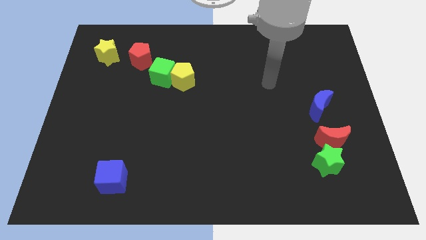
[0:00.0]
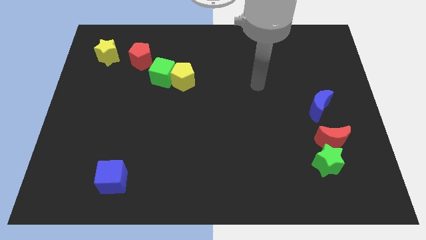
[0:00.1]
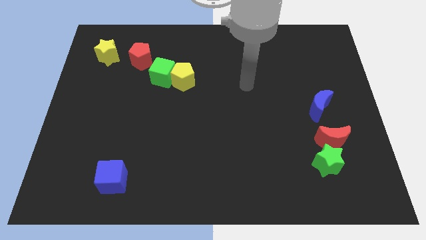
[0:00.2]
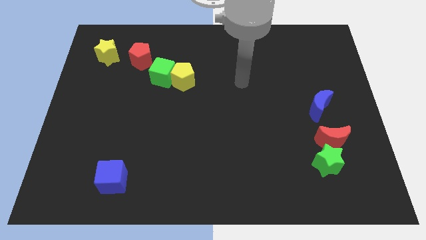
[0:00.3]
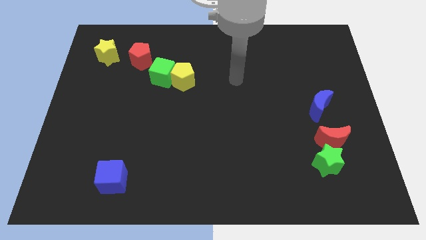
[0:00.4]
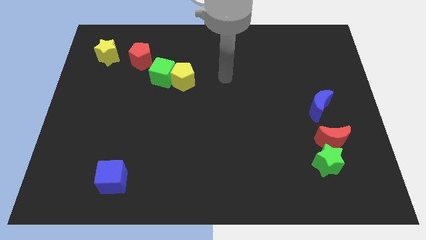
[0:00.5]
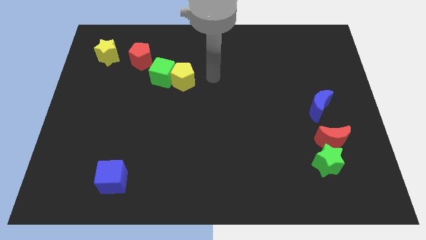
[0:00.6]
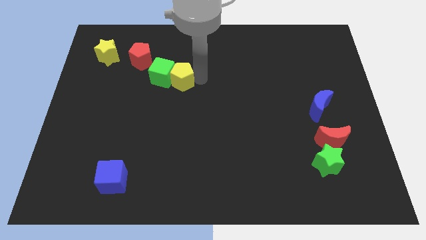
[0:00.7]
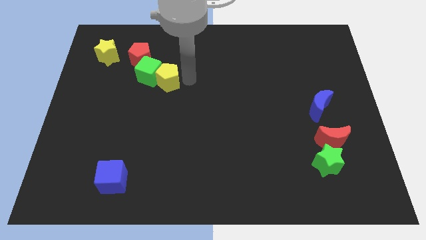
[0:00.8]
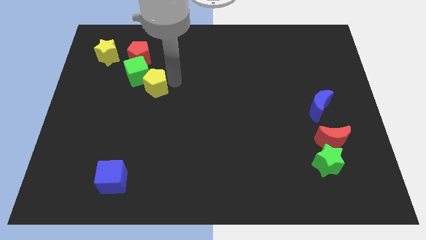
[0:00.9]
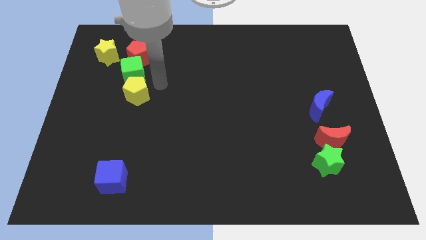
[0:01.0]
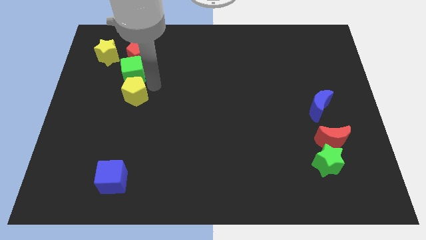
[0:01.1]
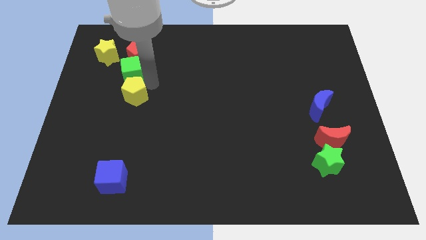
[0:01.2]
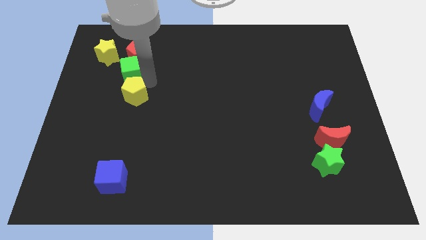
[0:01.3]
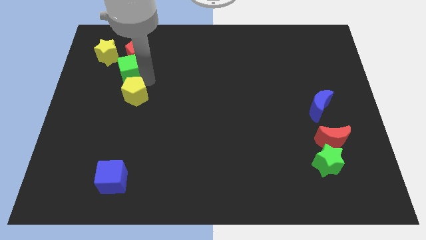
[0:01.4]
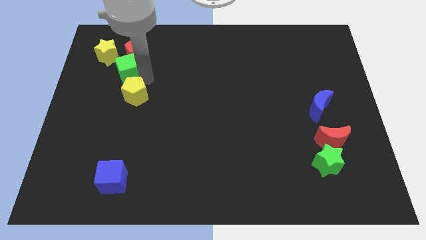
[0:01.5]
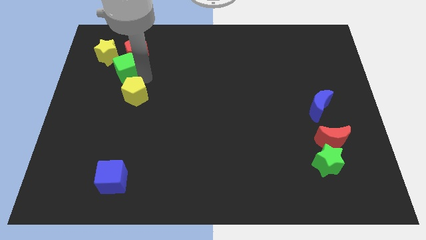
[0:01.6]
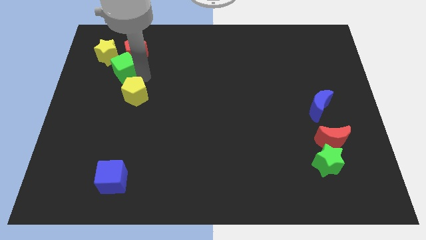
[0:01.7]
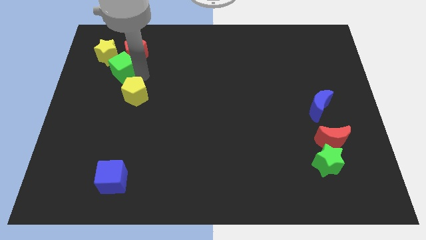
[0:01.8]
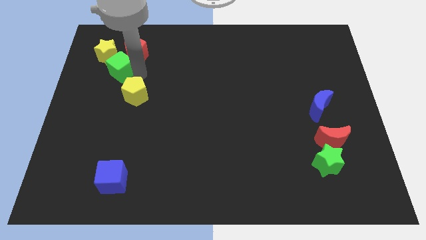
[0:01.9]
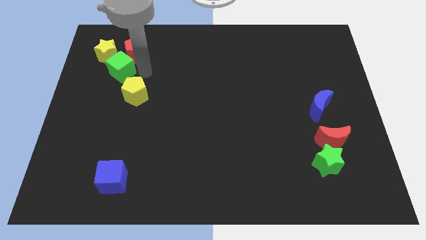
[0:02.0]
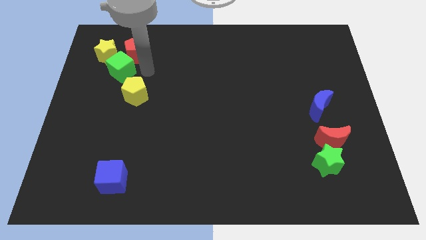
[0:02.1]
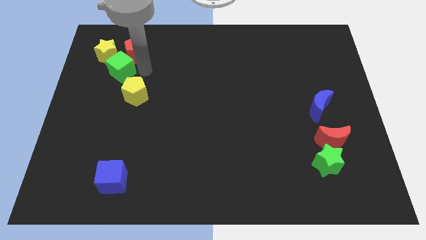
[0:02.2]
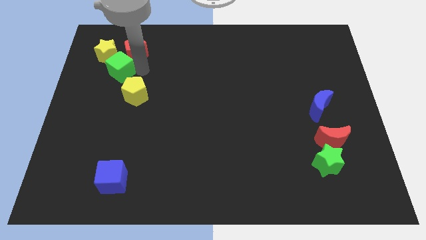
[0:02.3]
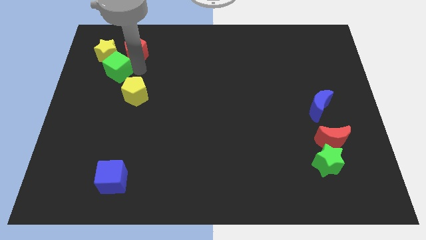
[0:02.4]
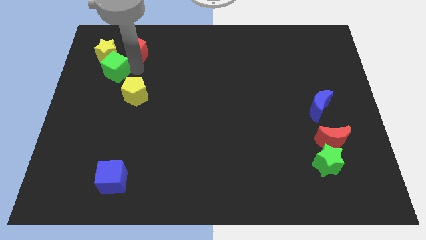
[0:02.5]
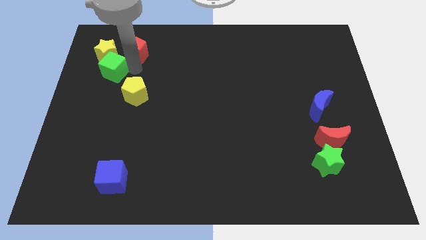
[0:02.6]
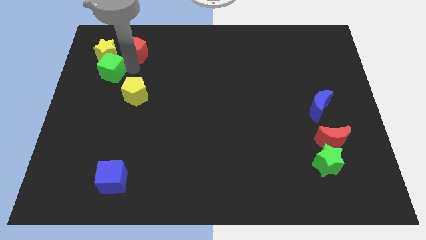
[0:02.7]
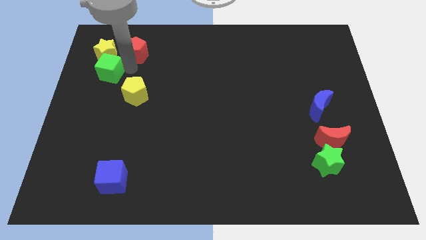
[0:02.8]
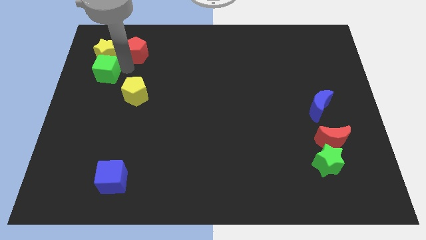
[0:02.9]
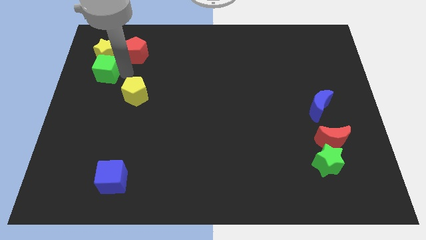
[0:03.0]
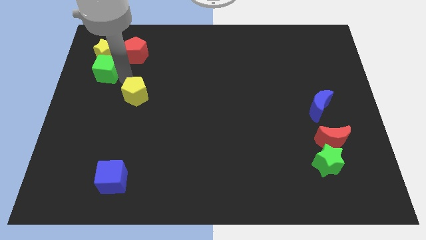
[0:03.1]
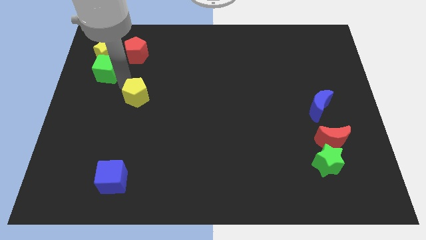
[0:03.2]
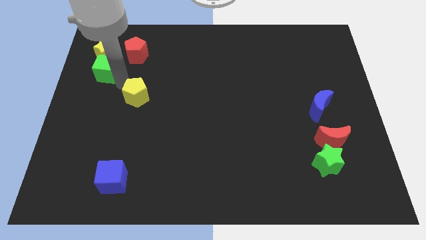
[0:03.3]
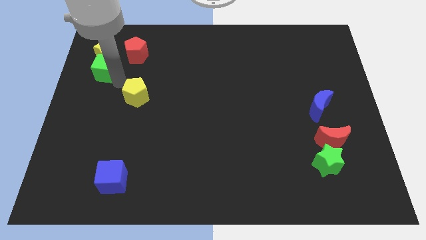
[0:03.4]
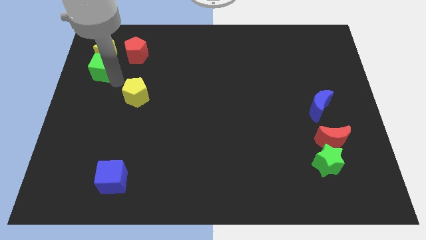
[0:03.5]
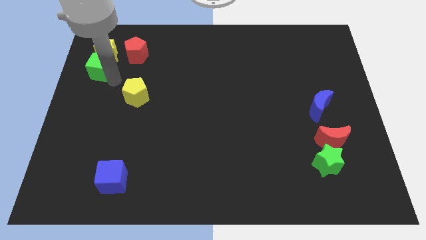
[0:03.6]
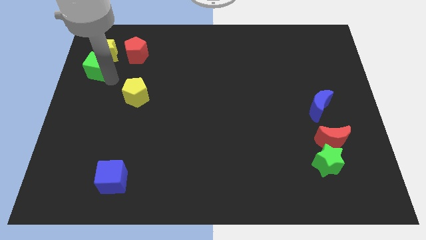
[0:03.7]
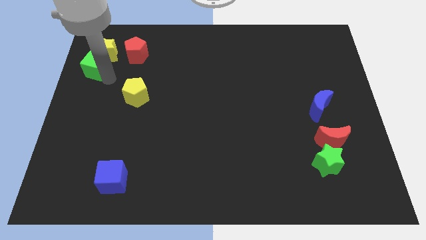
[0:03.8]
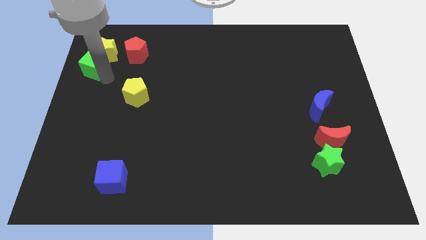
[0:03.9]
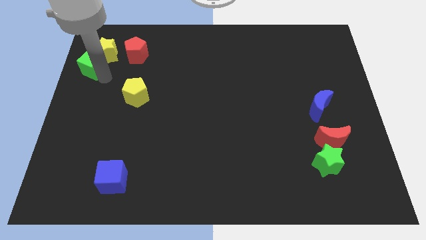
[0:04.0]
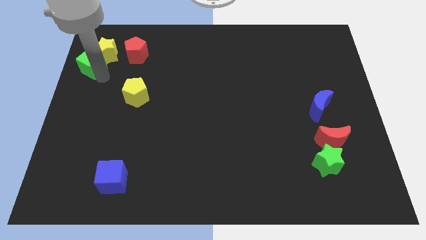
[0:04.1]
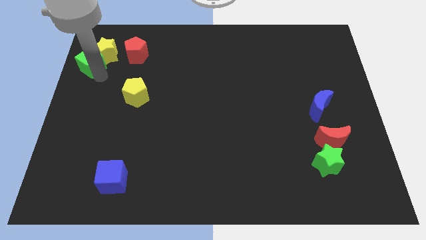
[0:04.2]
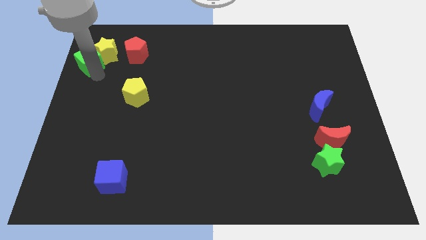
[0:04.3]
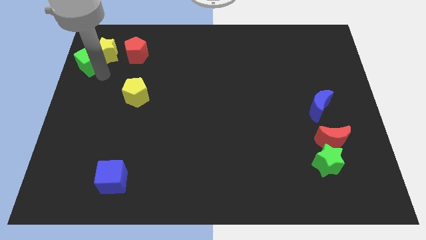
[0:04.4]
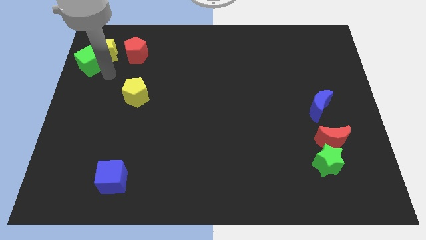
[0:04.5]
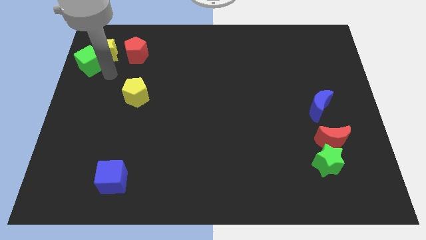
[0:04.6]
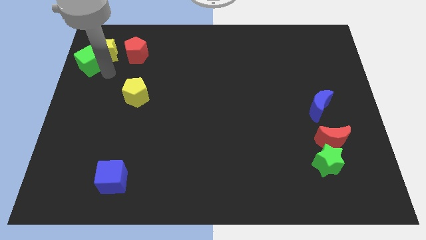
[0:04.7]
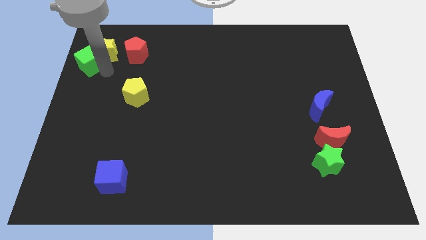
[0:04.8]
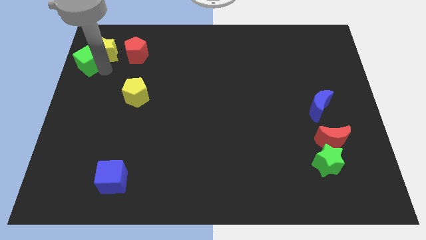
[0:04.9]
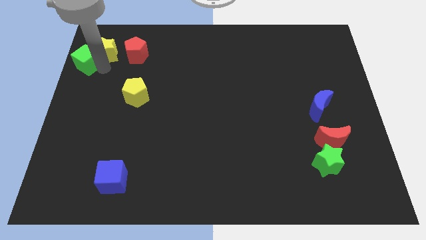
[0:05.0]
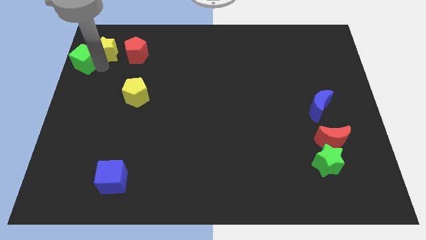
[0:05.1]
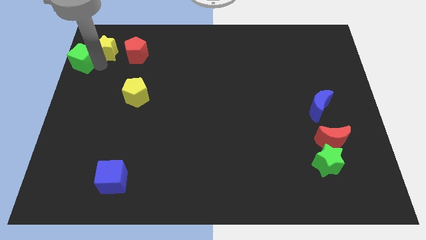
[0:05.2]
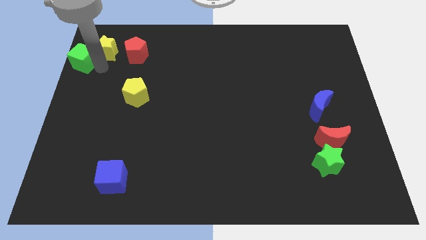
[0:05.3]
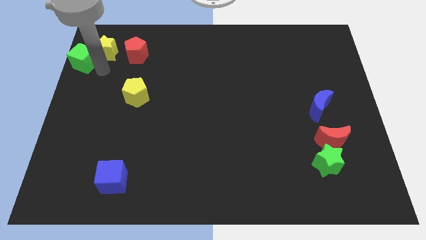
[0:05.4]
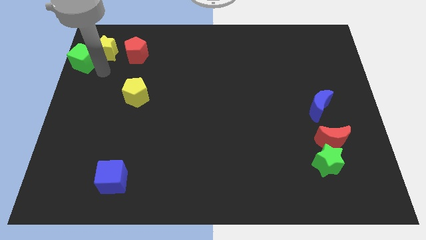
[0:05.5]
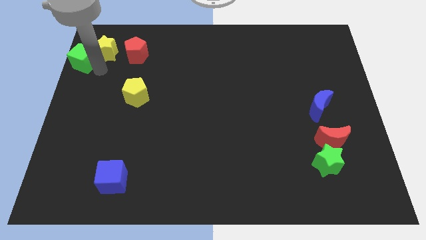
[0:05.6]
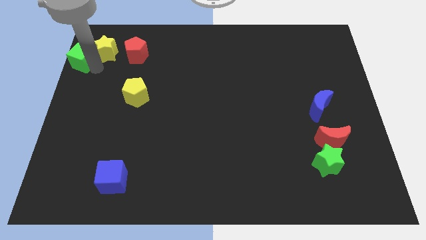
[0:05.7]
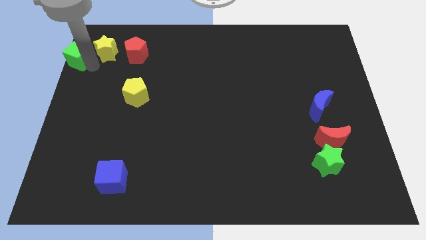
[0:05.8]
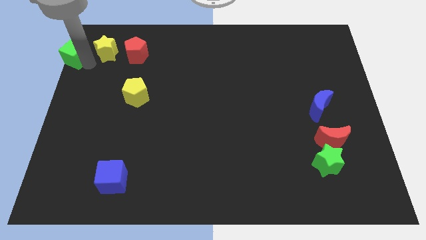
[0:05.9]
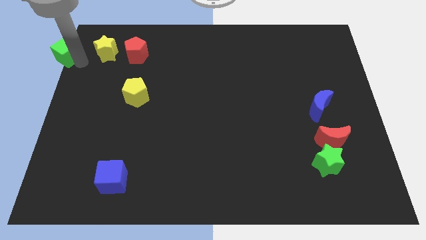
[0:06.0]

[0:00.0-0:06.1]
push the green cube to the top left of the board
